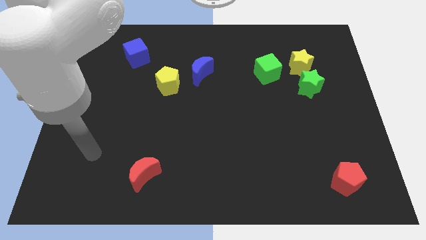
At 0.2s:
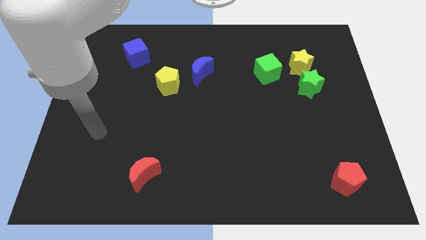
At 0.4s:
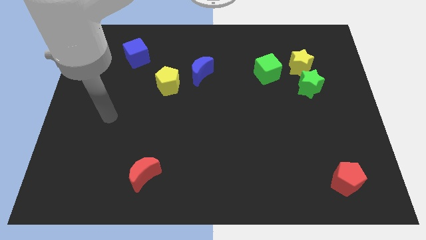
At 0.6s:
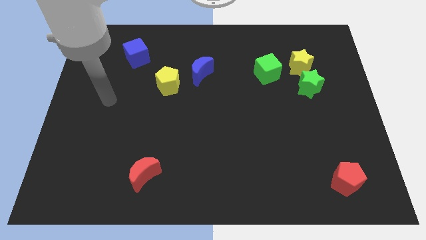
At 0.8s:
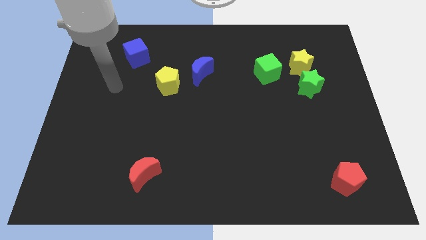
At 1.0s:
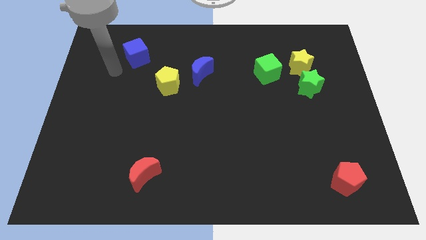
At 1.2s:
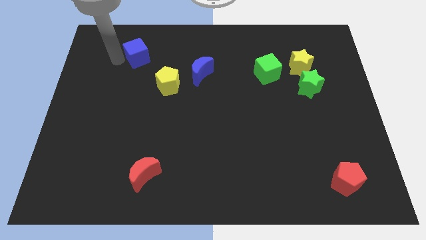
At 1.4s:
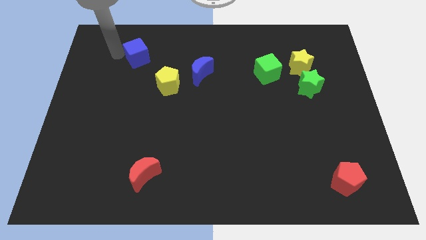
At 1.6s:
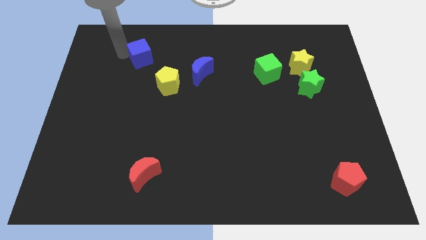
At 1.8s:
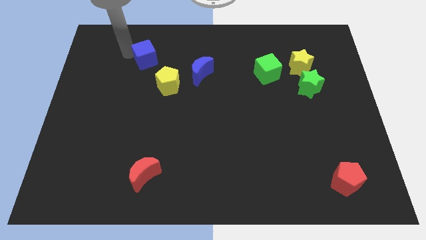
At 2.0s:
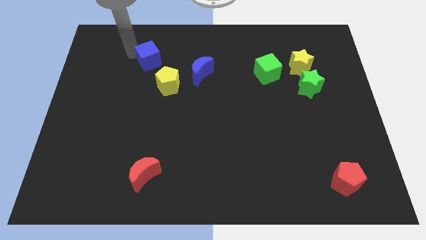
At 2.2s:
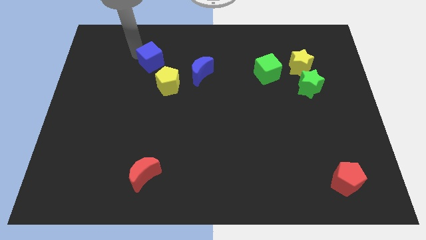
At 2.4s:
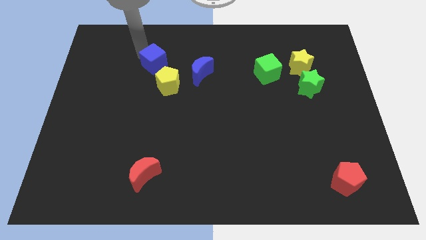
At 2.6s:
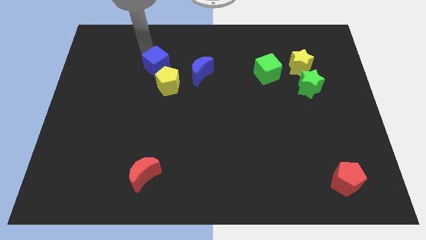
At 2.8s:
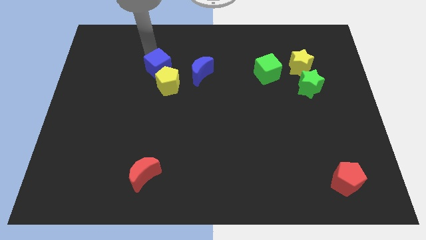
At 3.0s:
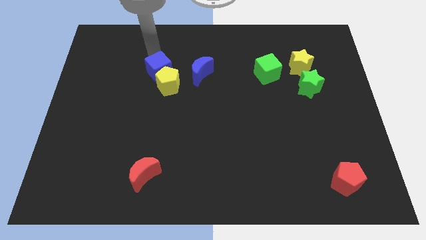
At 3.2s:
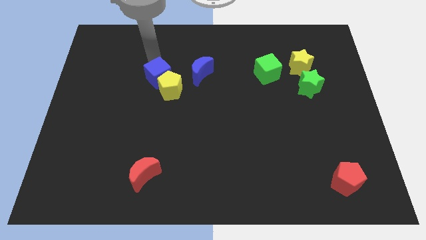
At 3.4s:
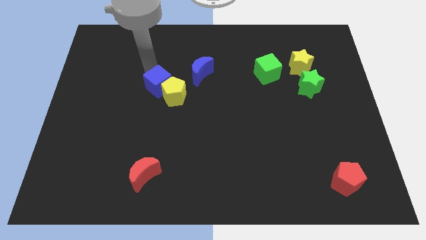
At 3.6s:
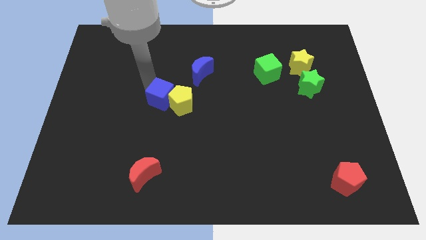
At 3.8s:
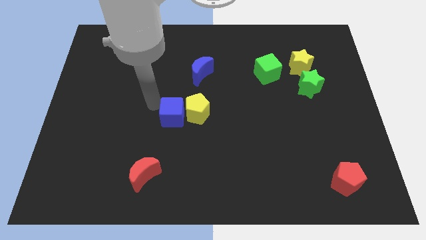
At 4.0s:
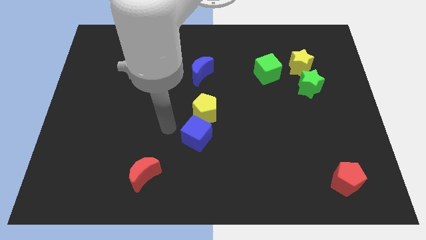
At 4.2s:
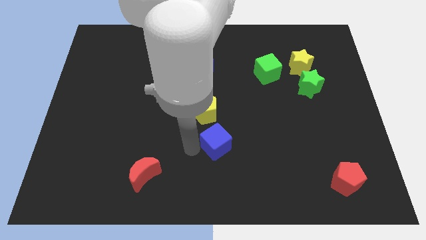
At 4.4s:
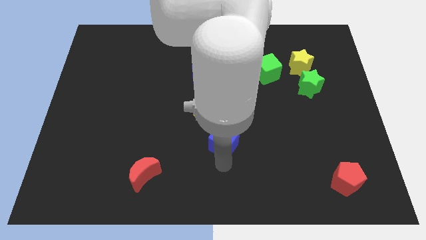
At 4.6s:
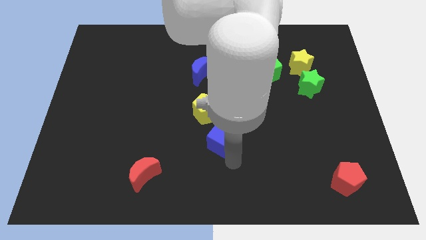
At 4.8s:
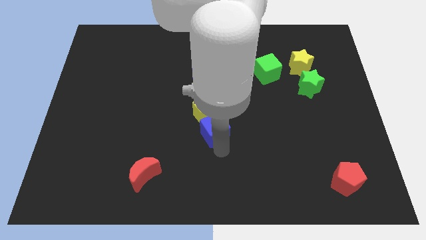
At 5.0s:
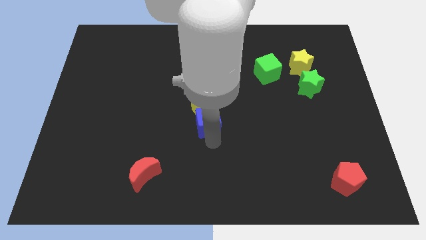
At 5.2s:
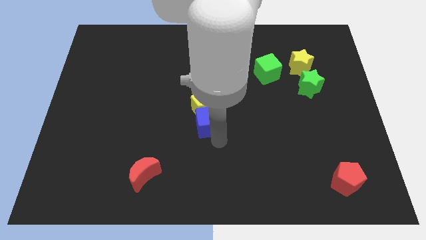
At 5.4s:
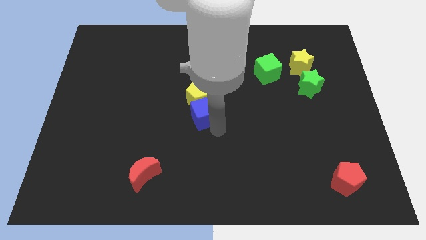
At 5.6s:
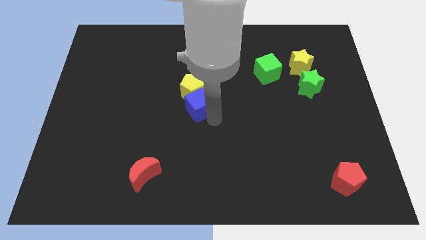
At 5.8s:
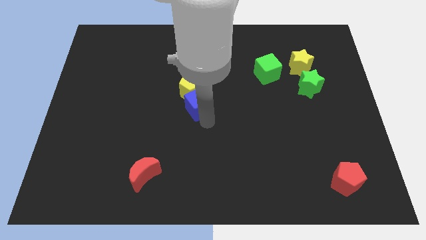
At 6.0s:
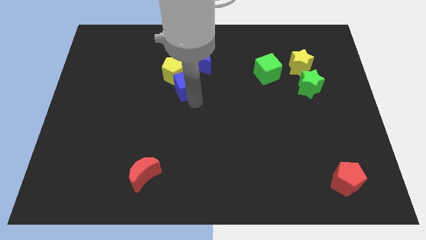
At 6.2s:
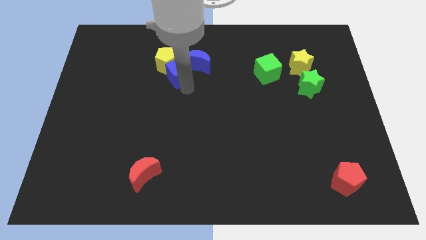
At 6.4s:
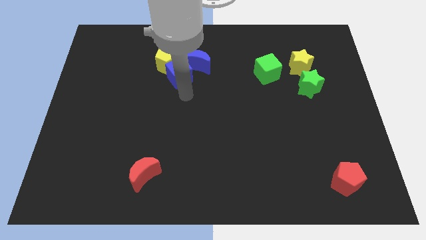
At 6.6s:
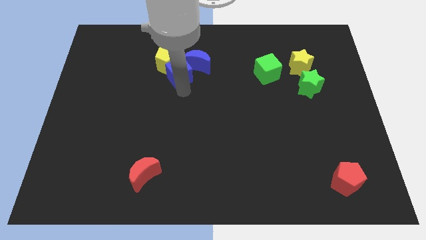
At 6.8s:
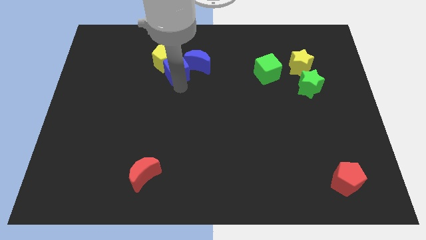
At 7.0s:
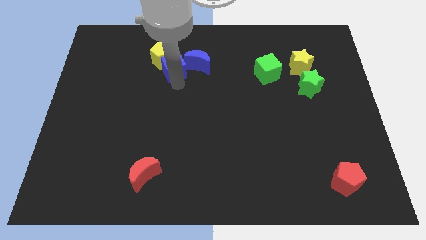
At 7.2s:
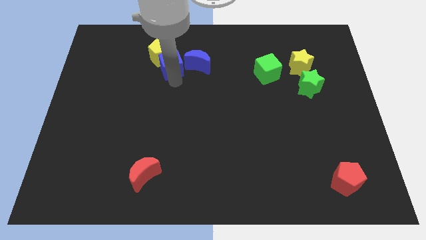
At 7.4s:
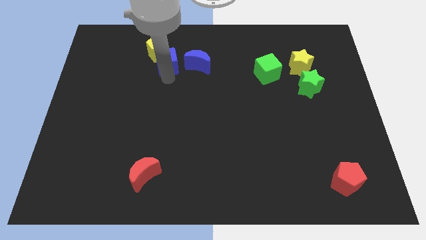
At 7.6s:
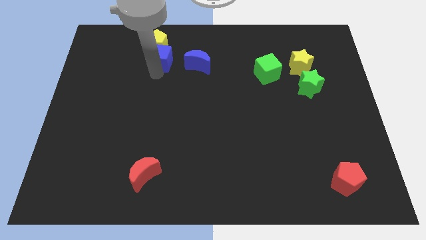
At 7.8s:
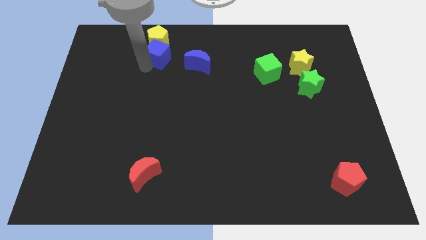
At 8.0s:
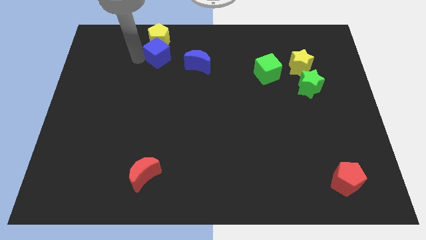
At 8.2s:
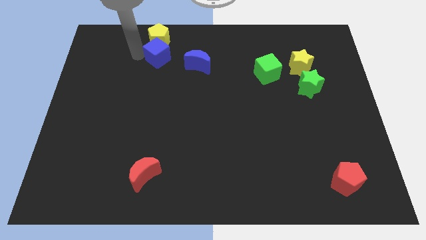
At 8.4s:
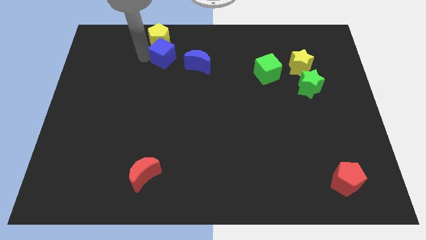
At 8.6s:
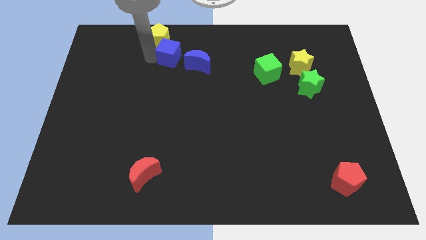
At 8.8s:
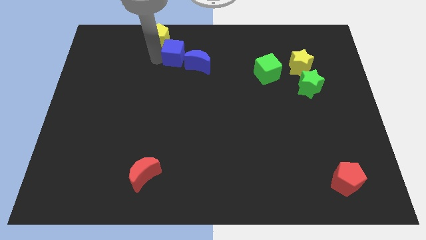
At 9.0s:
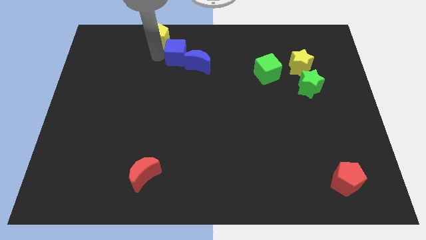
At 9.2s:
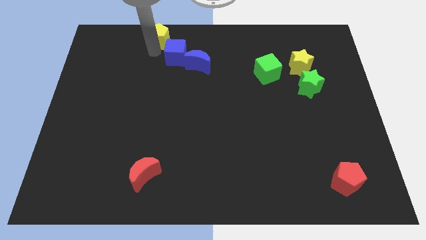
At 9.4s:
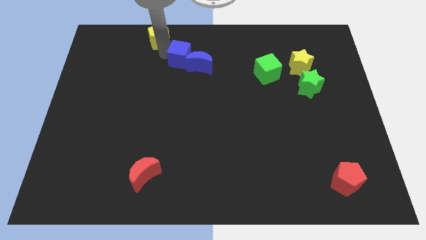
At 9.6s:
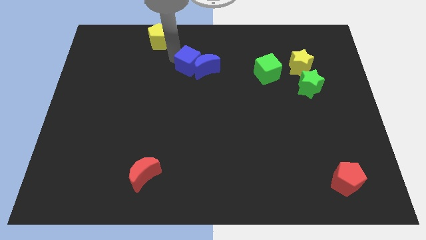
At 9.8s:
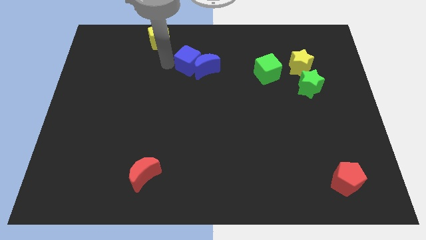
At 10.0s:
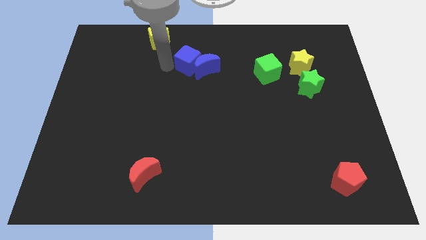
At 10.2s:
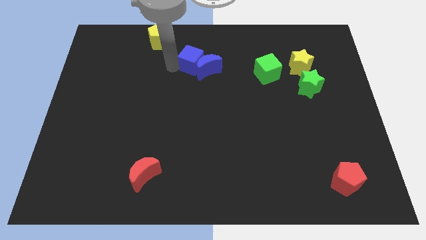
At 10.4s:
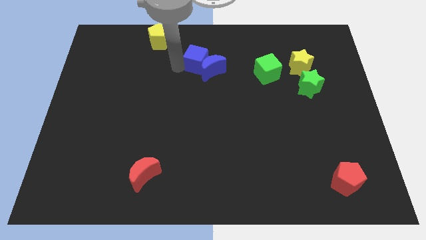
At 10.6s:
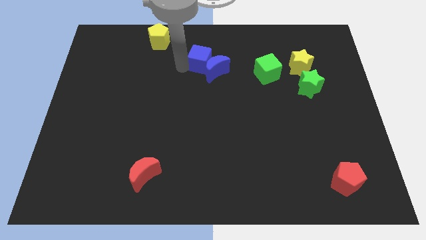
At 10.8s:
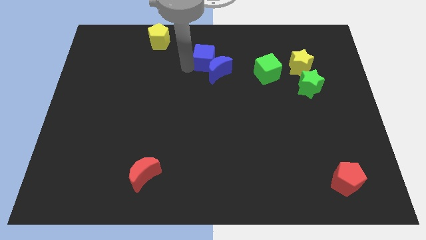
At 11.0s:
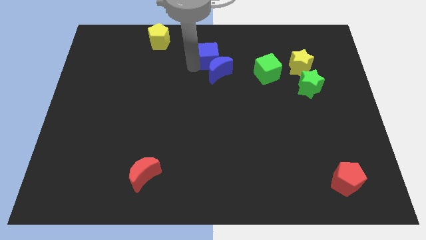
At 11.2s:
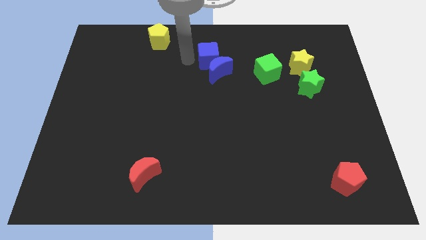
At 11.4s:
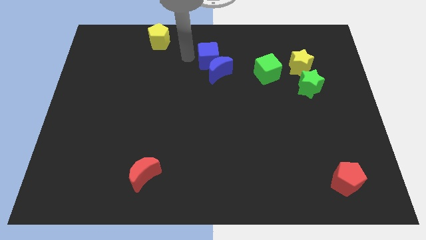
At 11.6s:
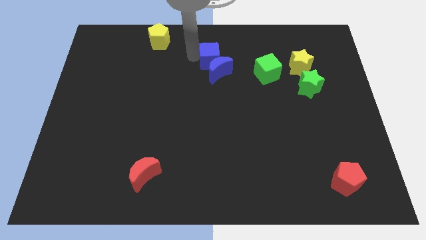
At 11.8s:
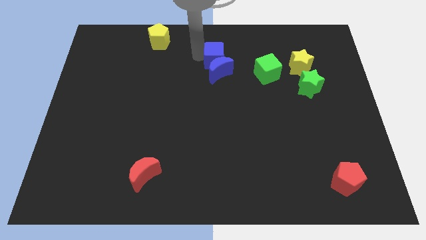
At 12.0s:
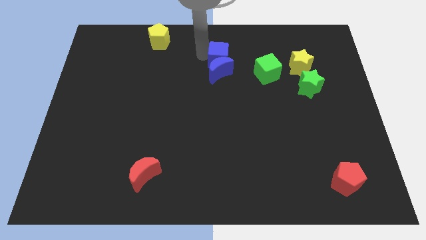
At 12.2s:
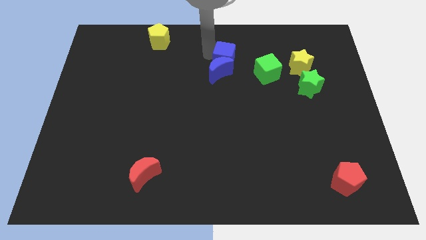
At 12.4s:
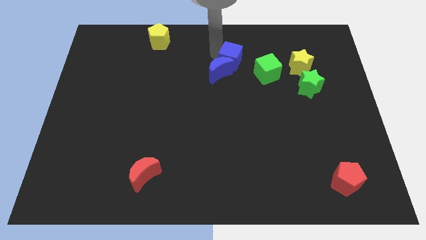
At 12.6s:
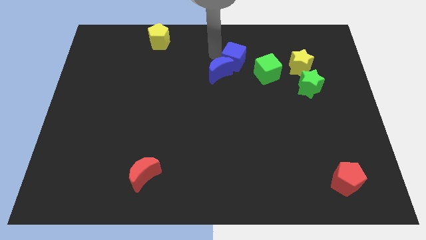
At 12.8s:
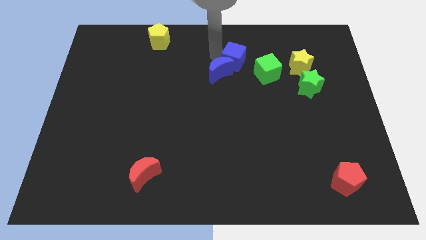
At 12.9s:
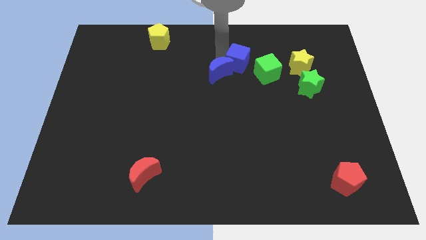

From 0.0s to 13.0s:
push the blue cube left of the yellow star

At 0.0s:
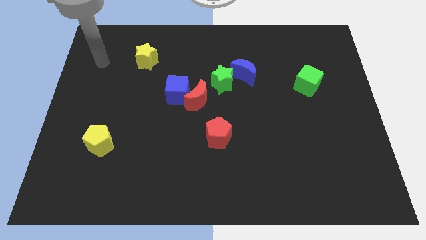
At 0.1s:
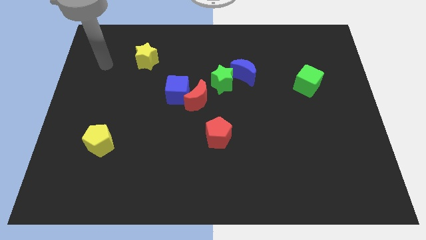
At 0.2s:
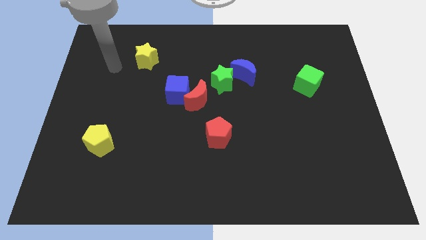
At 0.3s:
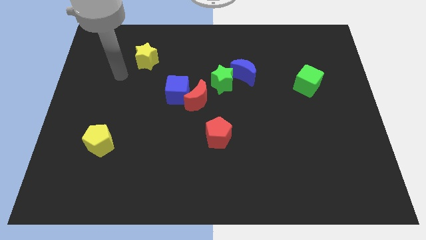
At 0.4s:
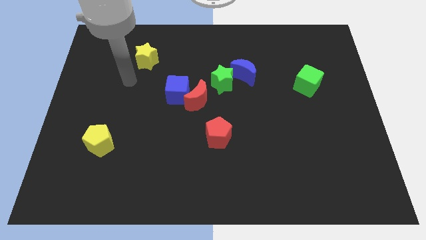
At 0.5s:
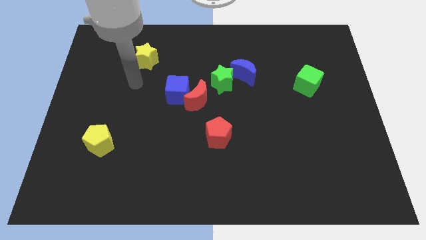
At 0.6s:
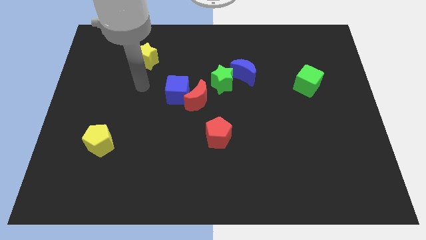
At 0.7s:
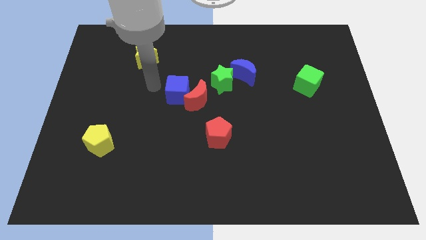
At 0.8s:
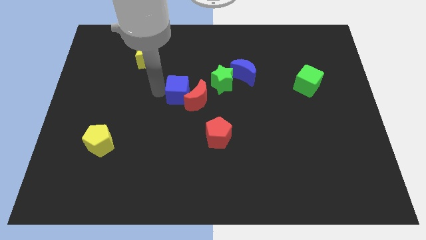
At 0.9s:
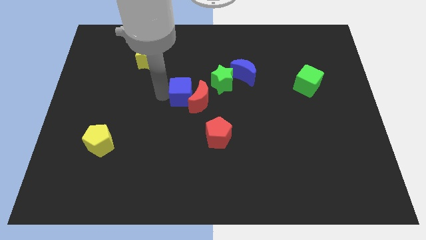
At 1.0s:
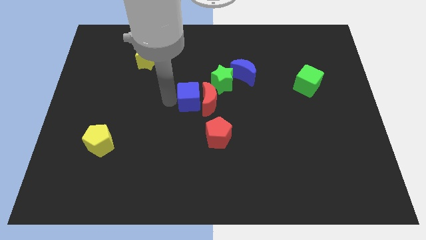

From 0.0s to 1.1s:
slide the red moon to the bottom left side of the blue moon
